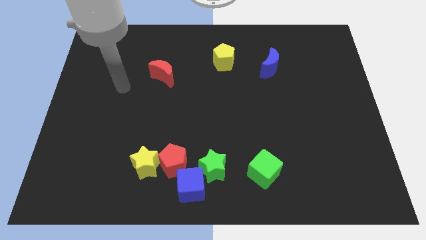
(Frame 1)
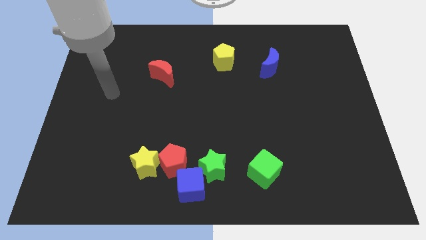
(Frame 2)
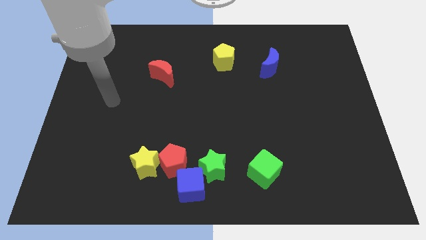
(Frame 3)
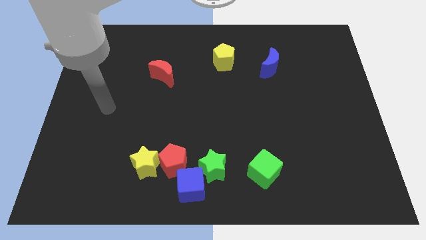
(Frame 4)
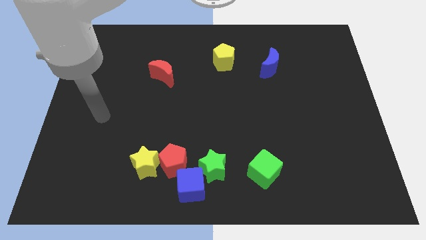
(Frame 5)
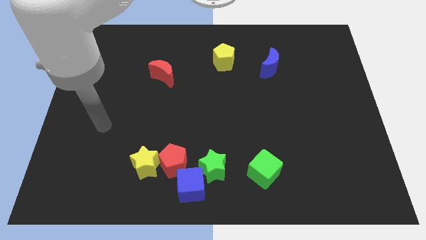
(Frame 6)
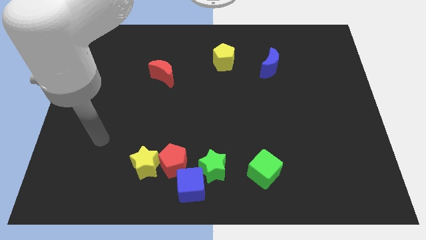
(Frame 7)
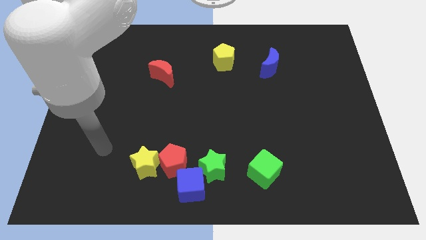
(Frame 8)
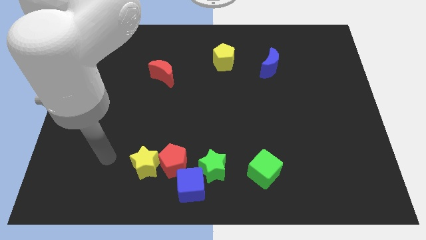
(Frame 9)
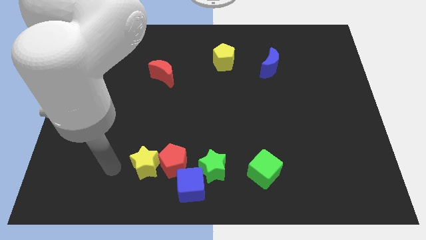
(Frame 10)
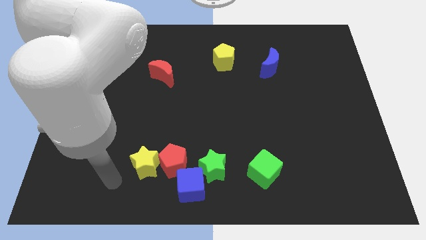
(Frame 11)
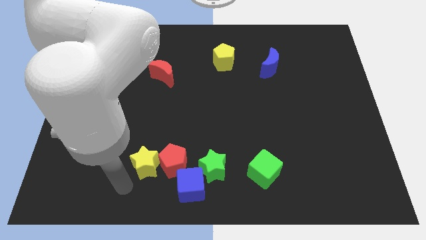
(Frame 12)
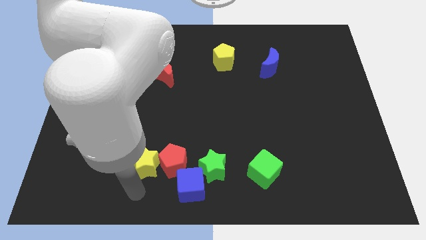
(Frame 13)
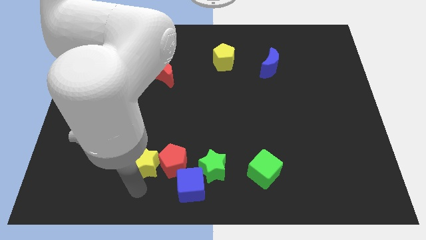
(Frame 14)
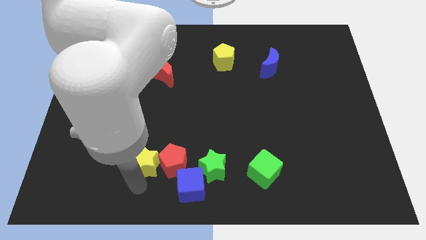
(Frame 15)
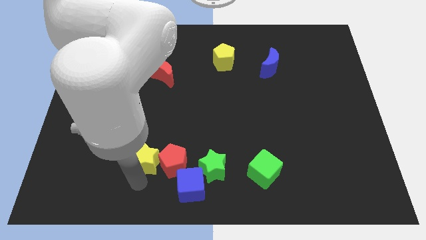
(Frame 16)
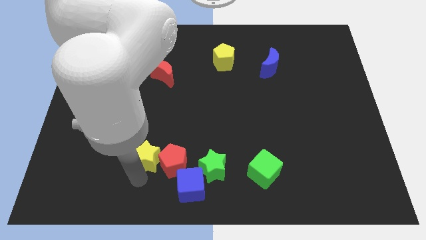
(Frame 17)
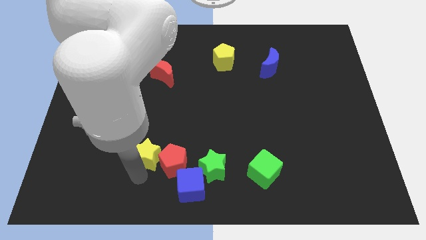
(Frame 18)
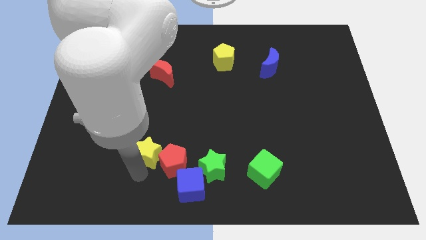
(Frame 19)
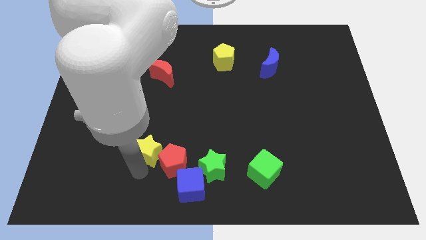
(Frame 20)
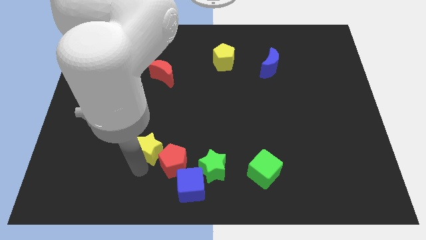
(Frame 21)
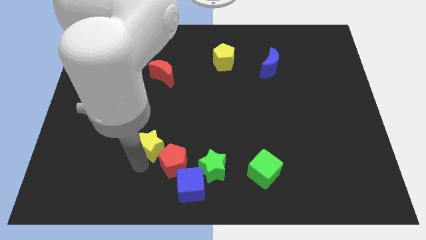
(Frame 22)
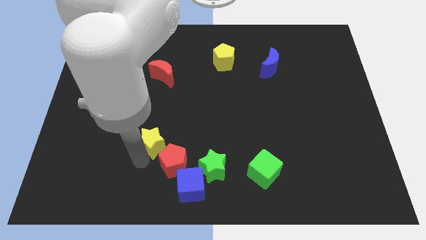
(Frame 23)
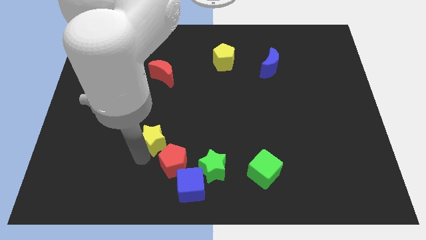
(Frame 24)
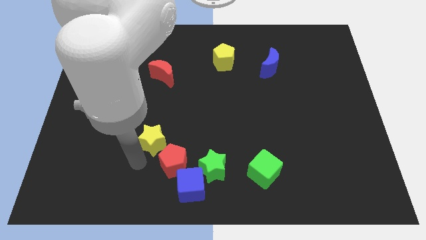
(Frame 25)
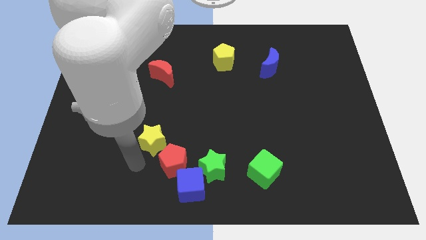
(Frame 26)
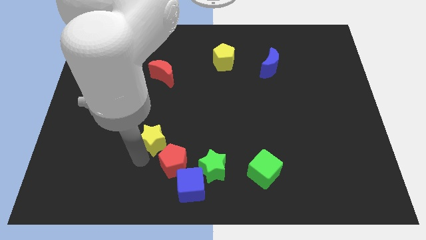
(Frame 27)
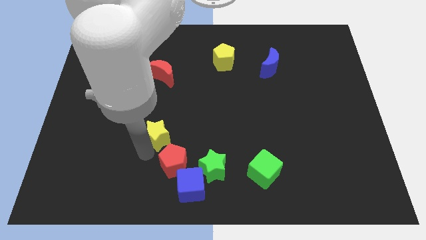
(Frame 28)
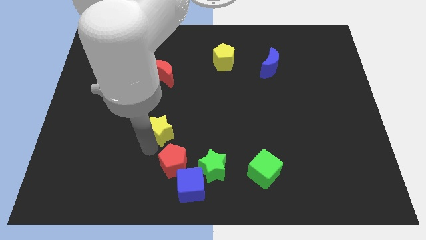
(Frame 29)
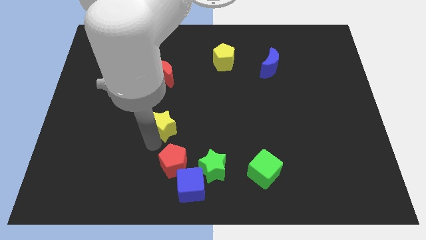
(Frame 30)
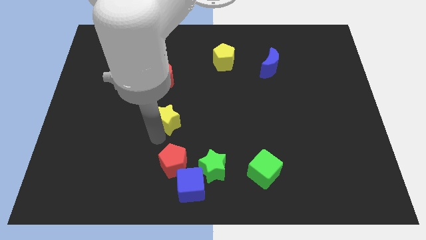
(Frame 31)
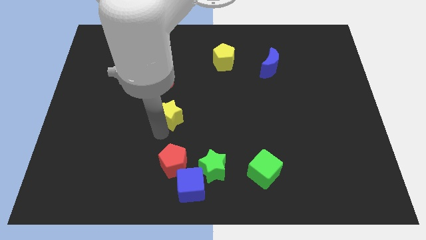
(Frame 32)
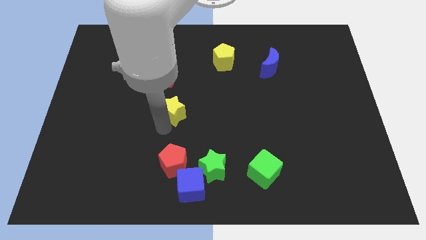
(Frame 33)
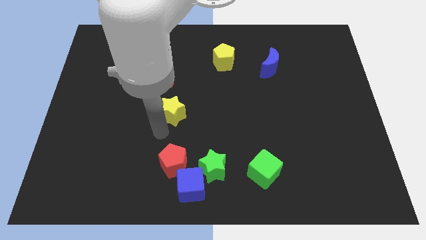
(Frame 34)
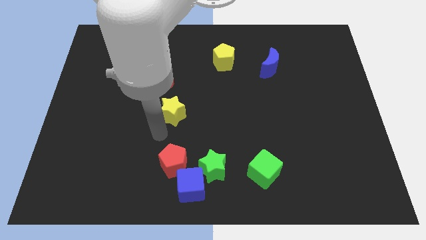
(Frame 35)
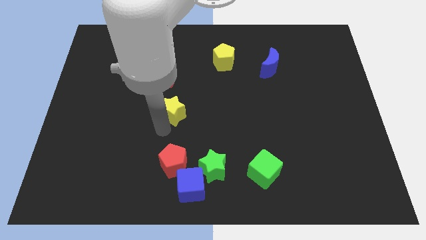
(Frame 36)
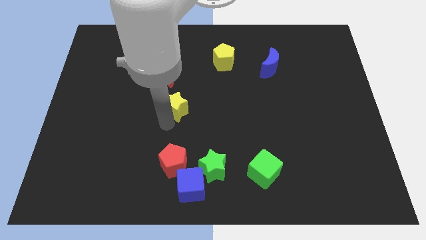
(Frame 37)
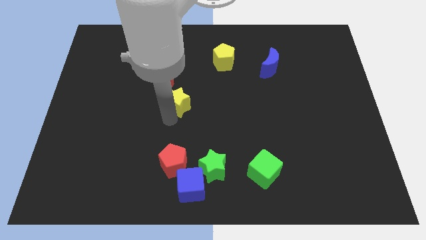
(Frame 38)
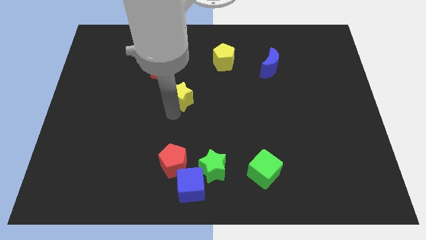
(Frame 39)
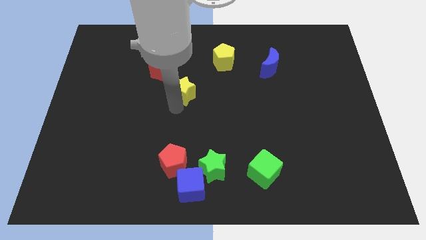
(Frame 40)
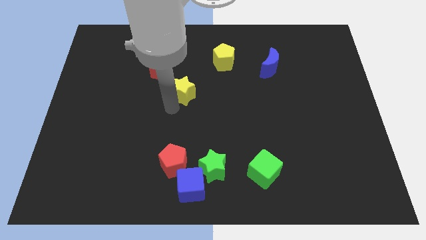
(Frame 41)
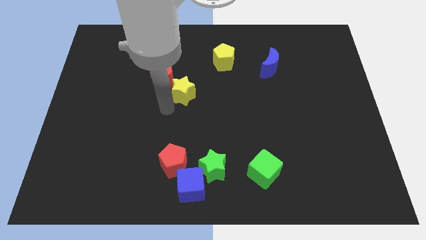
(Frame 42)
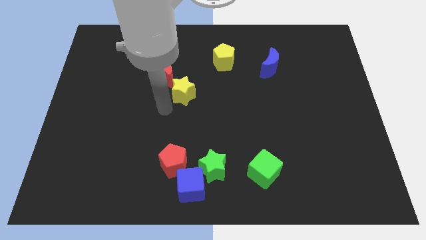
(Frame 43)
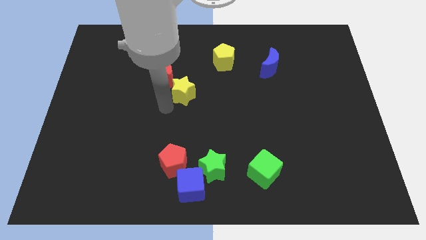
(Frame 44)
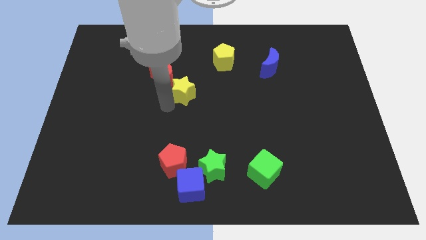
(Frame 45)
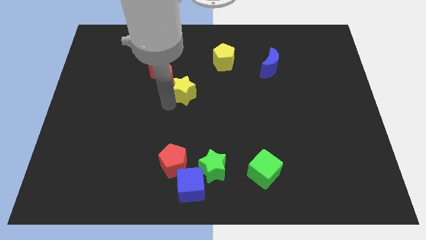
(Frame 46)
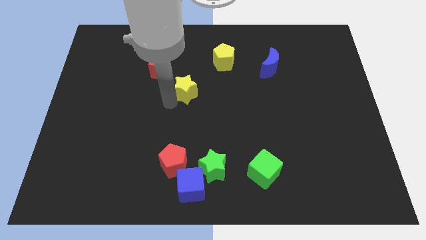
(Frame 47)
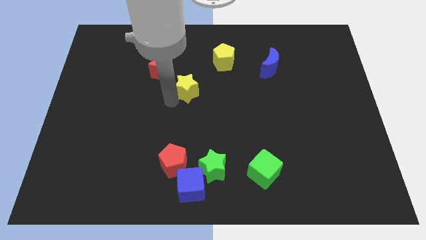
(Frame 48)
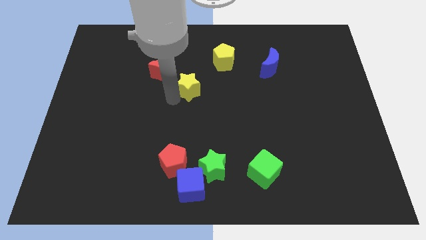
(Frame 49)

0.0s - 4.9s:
move the yellow star diagonally down and to the left of the yellow pentagon

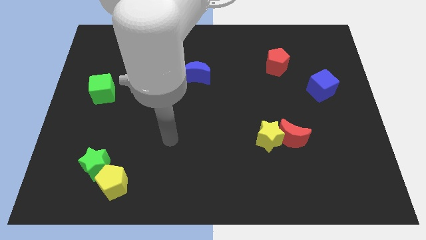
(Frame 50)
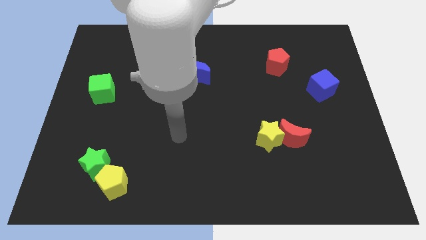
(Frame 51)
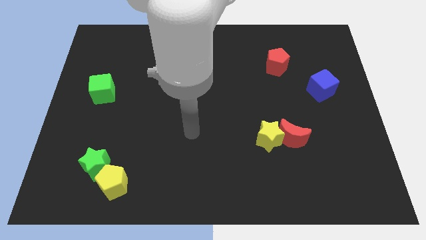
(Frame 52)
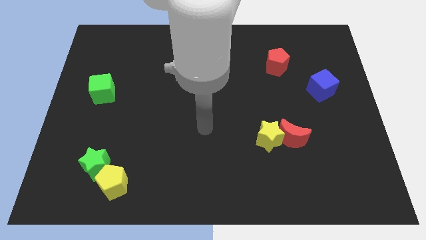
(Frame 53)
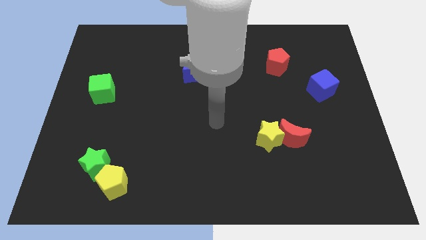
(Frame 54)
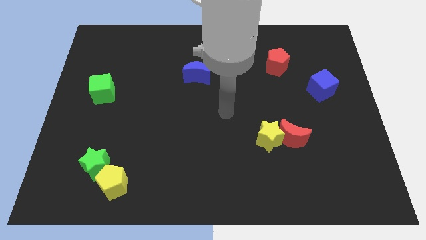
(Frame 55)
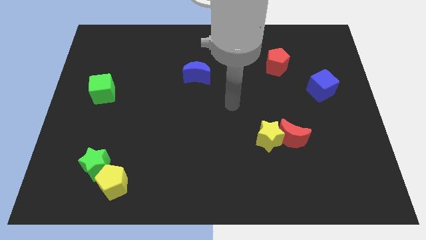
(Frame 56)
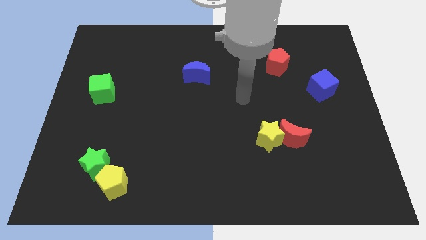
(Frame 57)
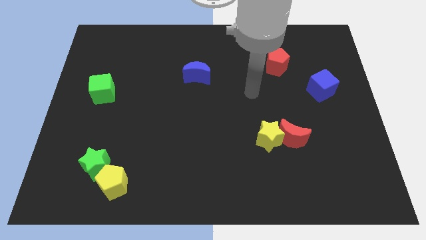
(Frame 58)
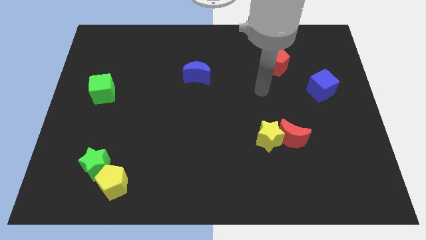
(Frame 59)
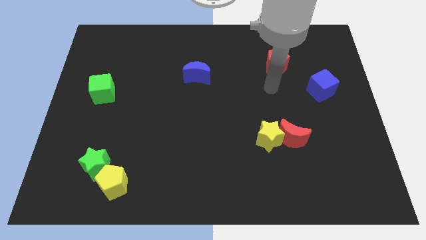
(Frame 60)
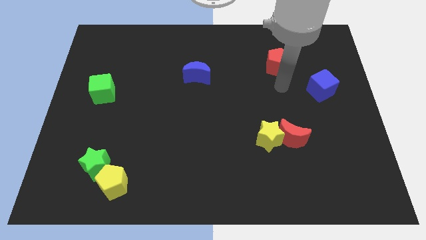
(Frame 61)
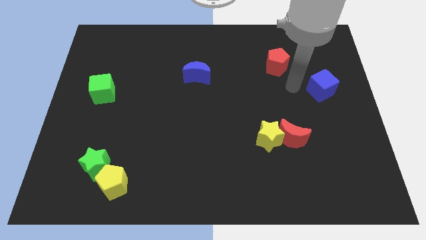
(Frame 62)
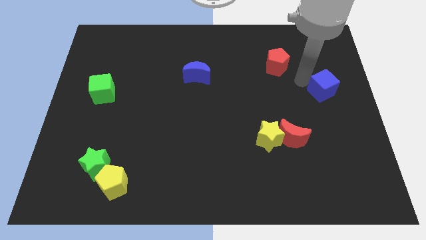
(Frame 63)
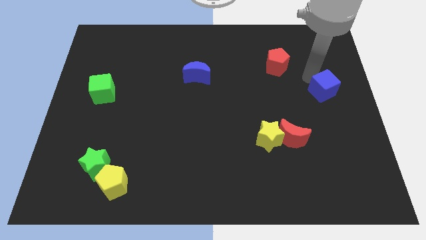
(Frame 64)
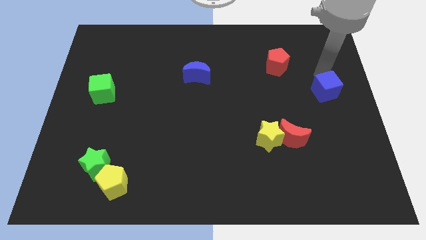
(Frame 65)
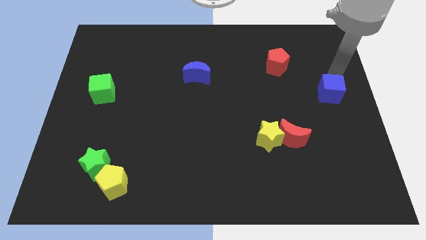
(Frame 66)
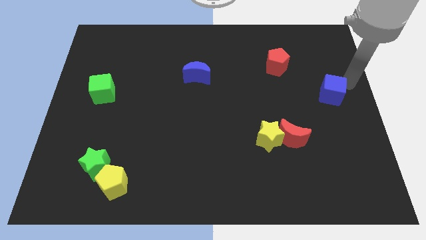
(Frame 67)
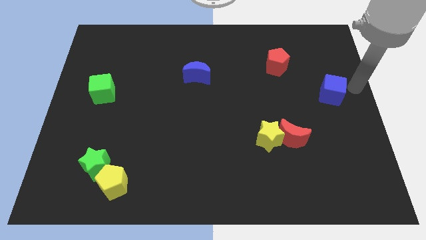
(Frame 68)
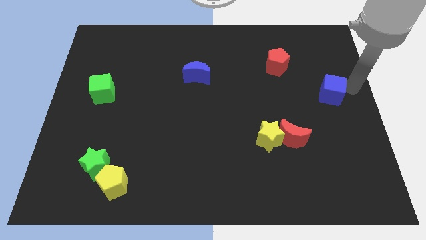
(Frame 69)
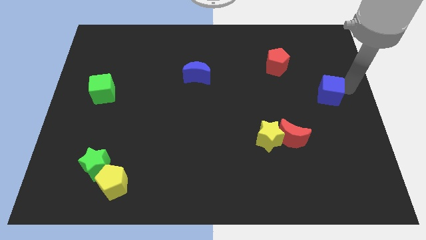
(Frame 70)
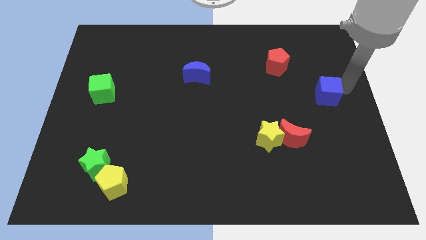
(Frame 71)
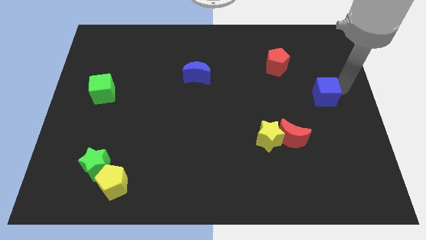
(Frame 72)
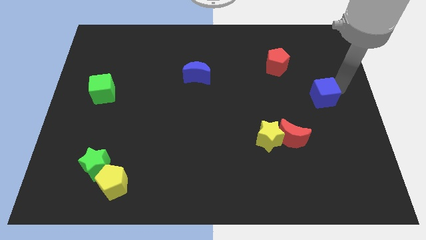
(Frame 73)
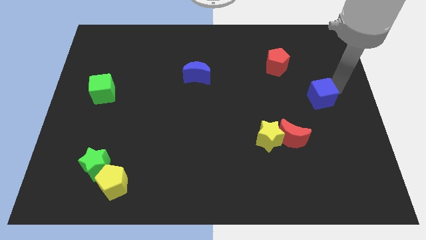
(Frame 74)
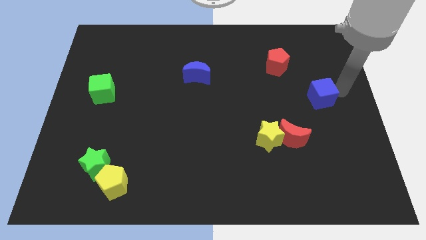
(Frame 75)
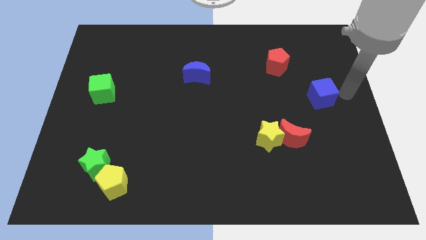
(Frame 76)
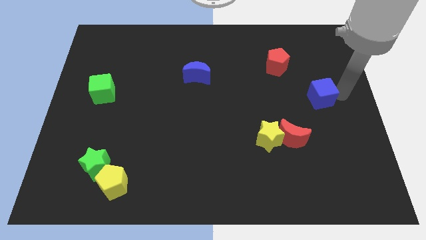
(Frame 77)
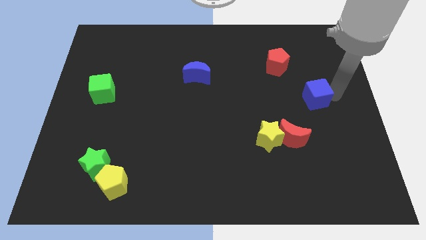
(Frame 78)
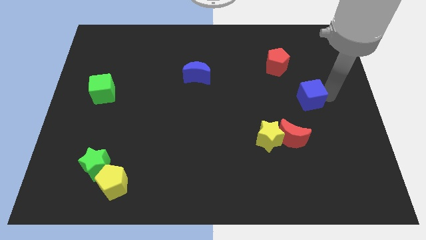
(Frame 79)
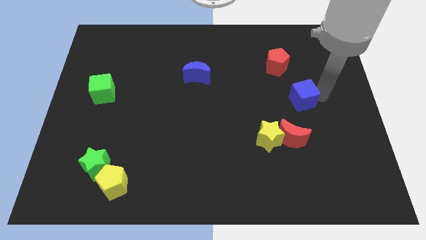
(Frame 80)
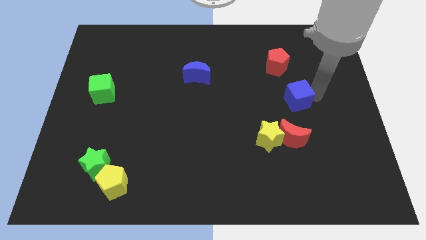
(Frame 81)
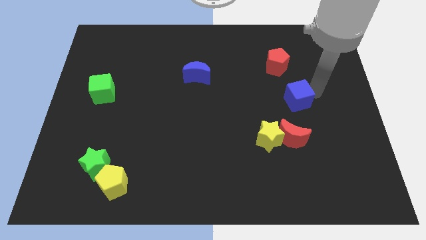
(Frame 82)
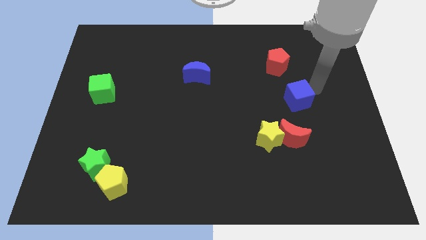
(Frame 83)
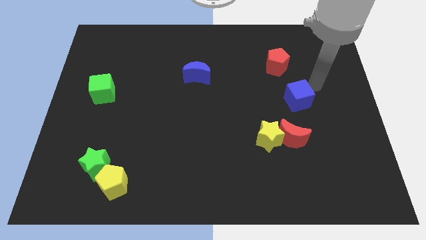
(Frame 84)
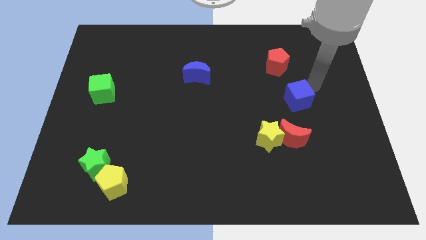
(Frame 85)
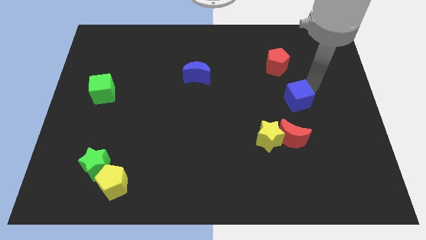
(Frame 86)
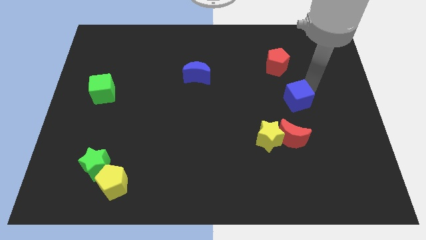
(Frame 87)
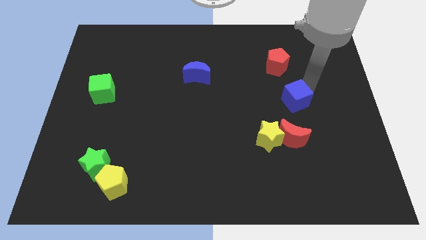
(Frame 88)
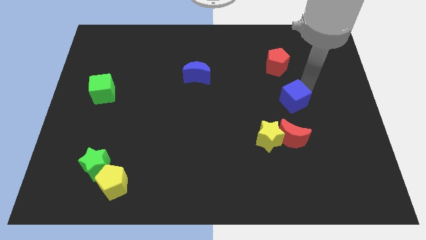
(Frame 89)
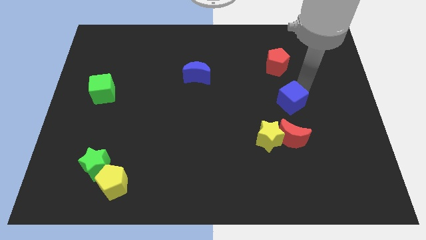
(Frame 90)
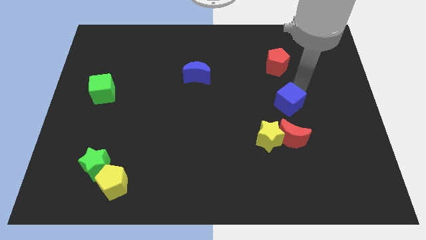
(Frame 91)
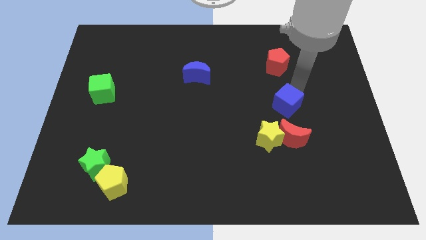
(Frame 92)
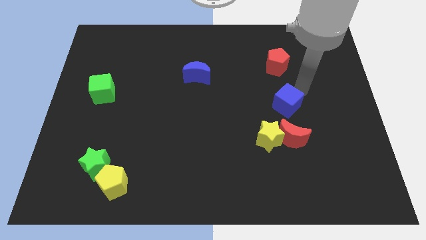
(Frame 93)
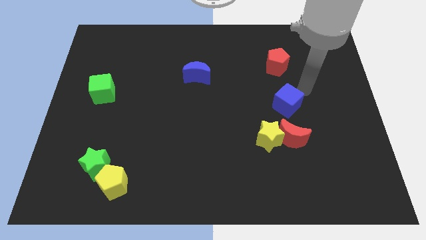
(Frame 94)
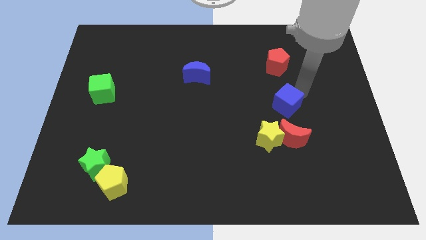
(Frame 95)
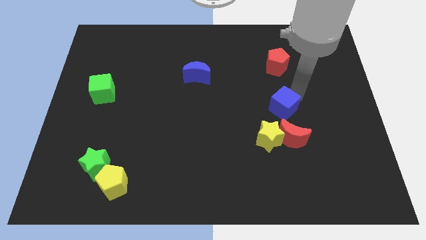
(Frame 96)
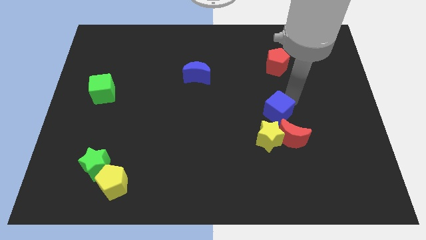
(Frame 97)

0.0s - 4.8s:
push the blue cube diagonally up and to the left of the red moon
